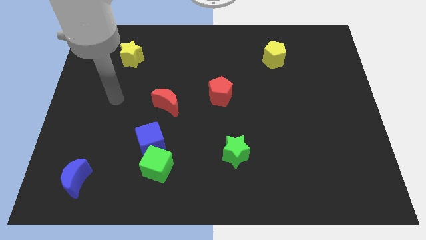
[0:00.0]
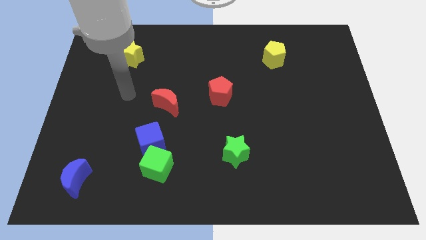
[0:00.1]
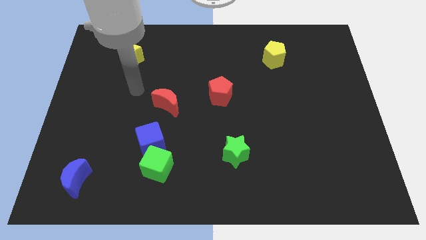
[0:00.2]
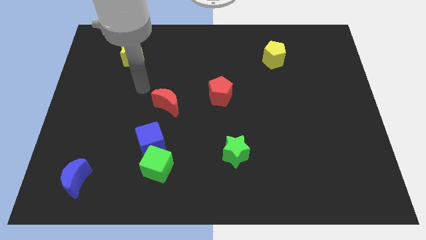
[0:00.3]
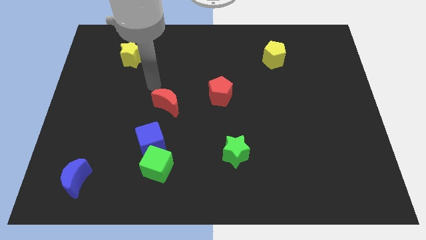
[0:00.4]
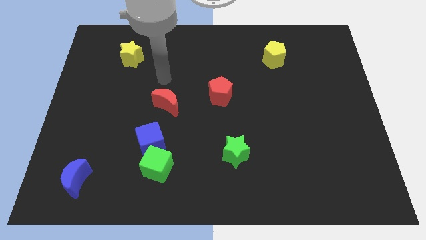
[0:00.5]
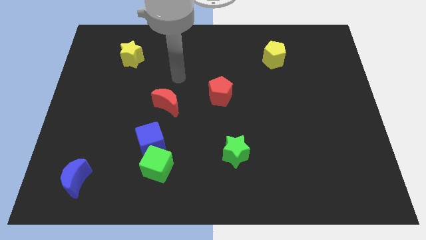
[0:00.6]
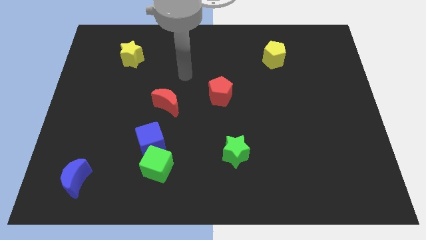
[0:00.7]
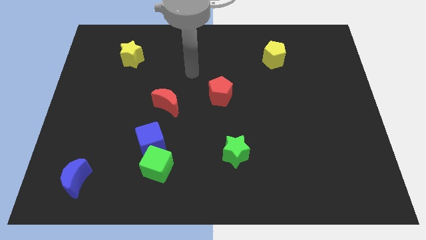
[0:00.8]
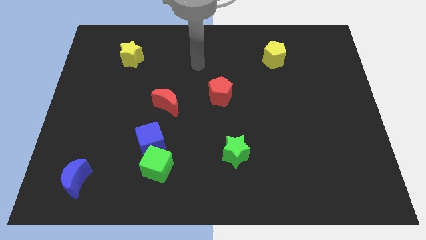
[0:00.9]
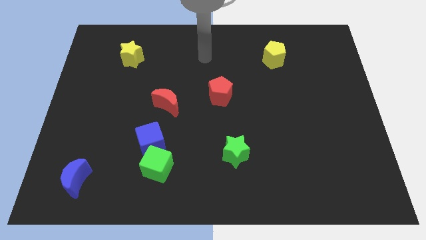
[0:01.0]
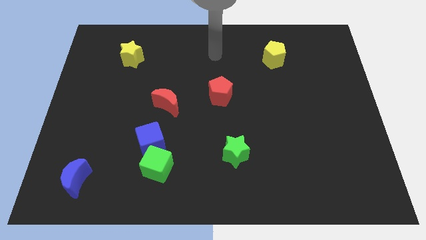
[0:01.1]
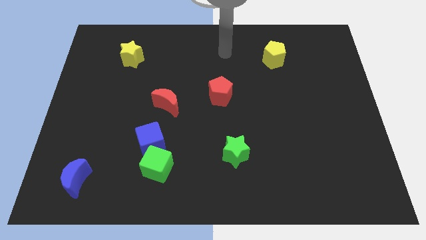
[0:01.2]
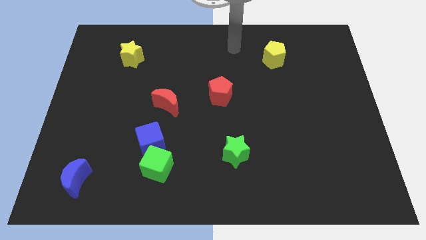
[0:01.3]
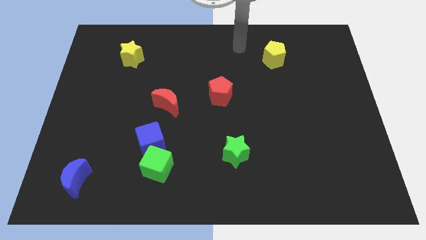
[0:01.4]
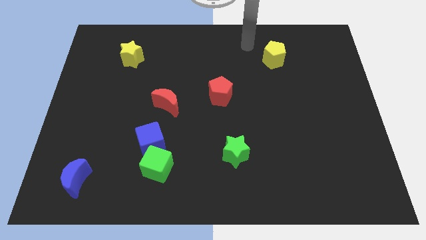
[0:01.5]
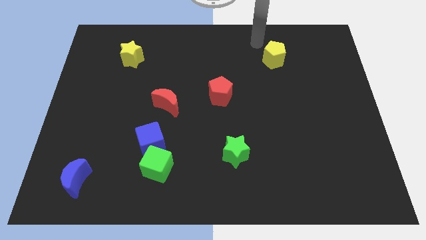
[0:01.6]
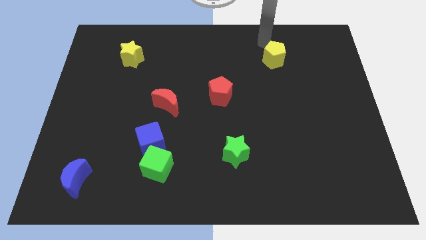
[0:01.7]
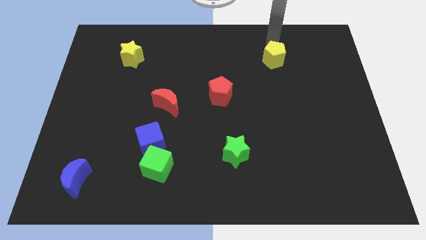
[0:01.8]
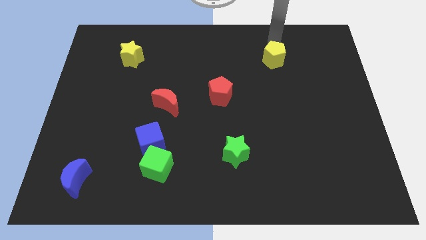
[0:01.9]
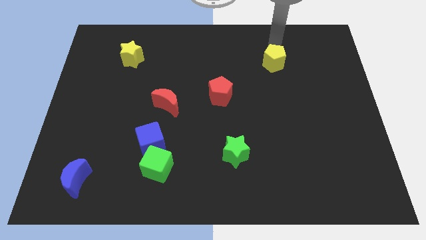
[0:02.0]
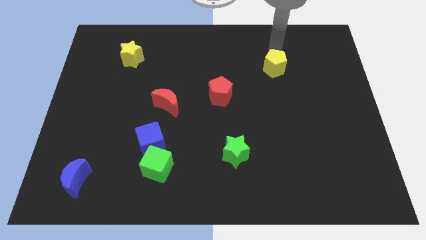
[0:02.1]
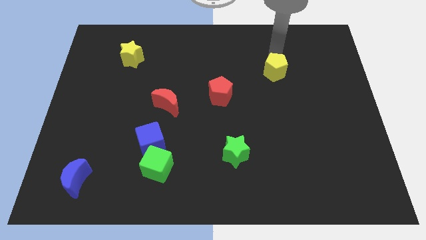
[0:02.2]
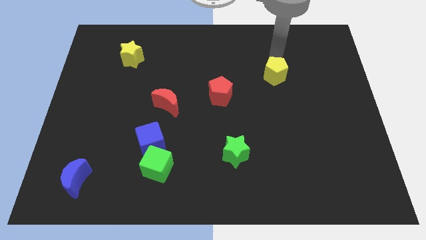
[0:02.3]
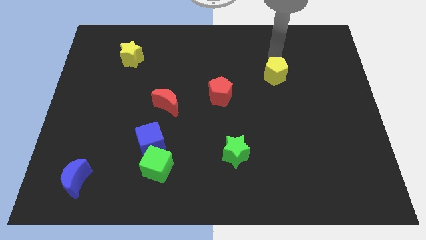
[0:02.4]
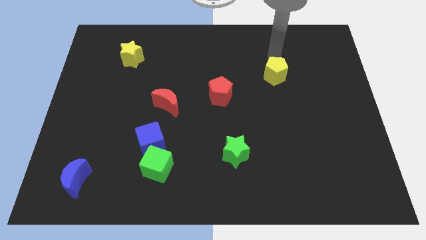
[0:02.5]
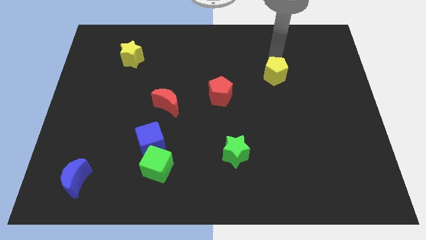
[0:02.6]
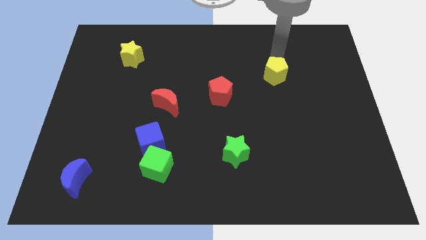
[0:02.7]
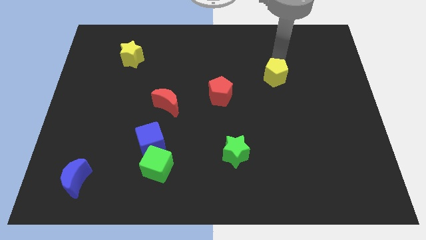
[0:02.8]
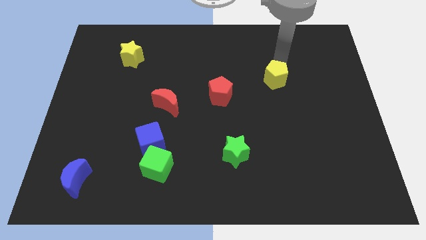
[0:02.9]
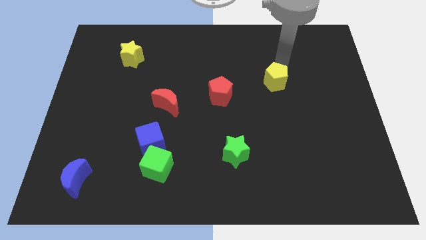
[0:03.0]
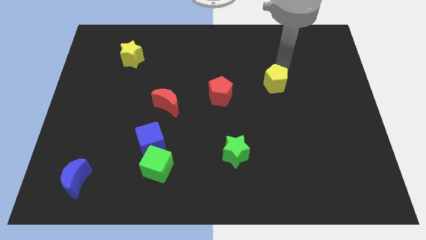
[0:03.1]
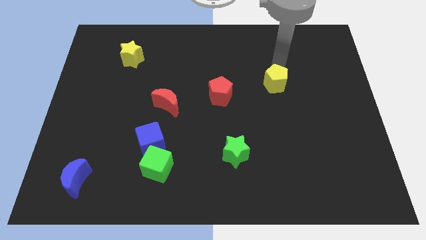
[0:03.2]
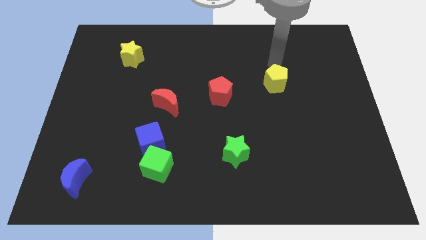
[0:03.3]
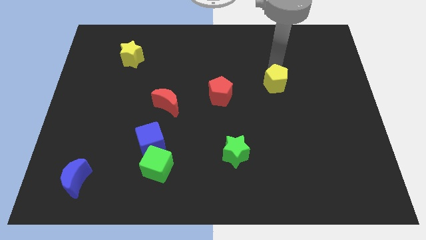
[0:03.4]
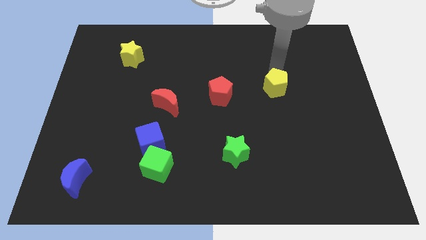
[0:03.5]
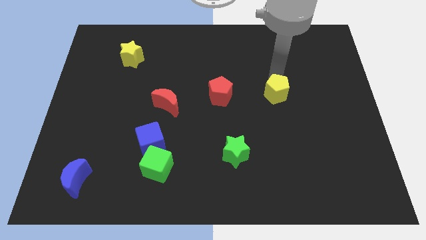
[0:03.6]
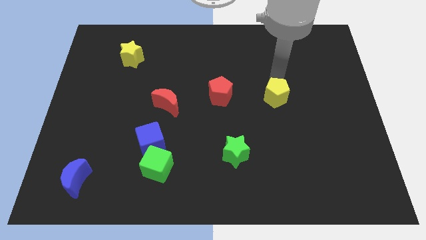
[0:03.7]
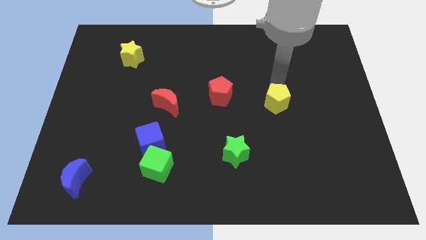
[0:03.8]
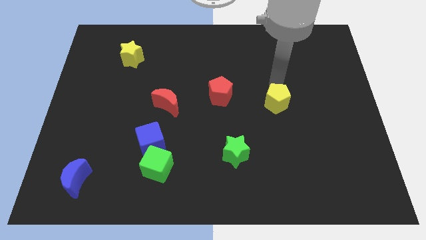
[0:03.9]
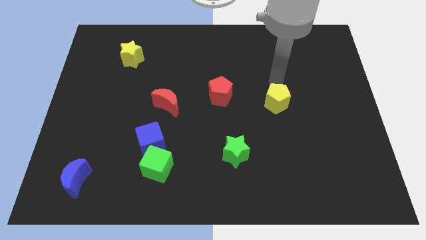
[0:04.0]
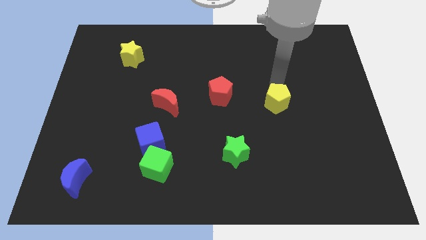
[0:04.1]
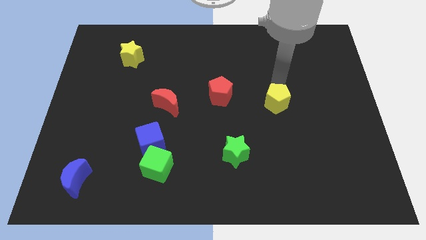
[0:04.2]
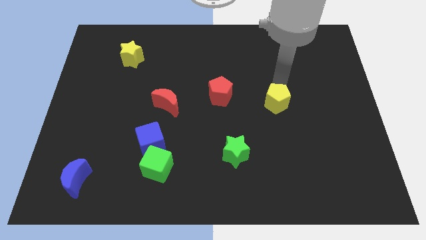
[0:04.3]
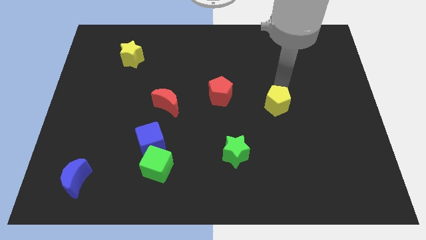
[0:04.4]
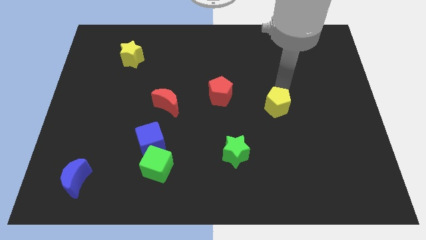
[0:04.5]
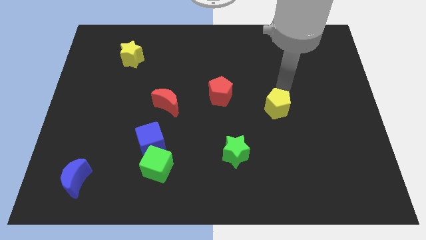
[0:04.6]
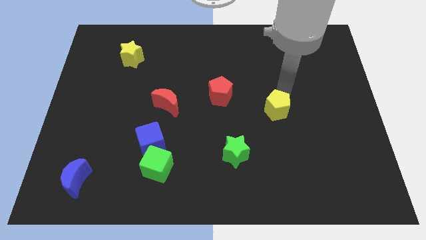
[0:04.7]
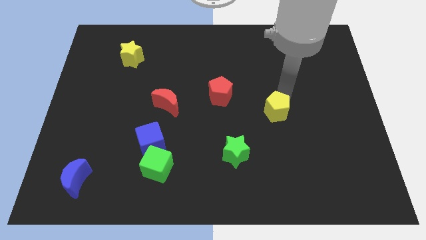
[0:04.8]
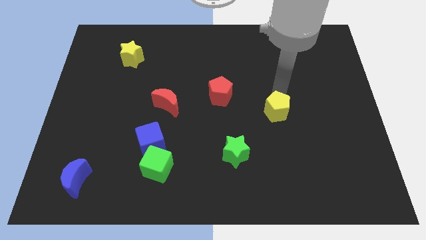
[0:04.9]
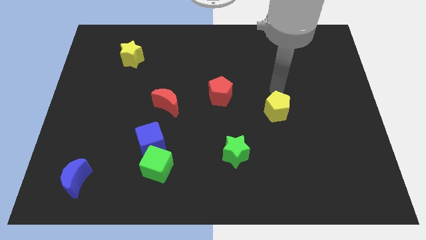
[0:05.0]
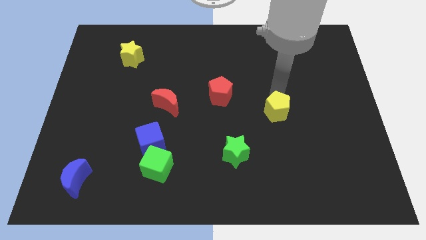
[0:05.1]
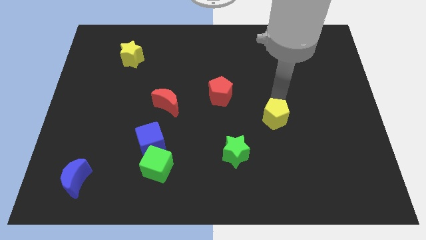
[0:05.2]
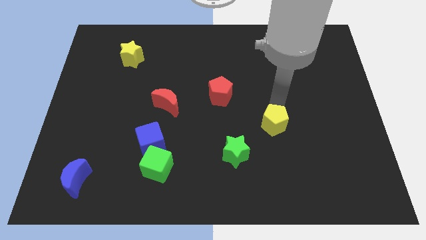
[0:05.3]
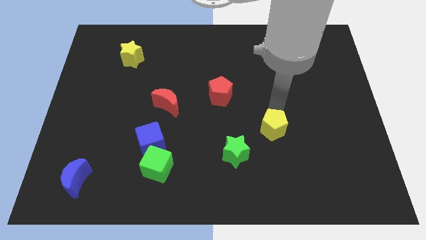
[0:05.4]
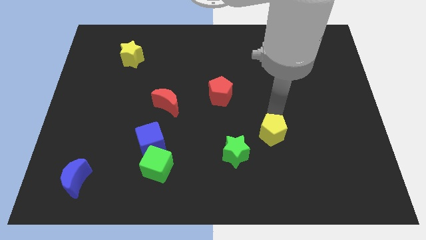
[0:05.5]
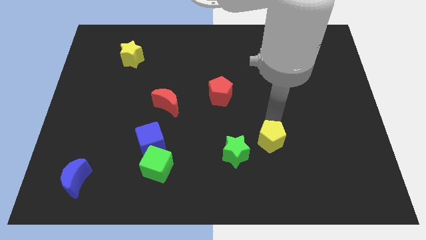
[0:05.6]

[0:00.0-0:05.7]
slide the yellow pentagon to the right side of the green star
